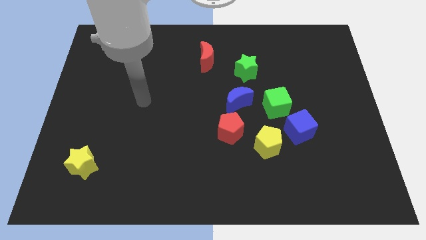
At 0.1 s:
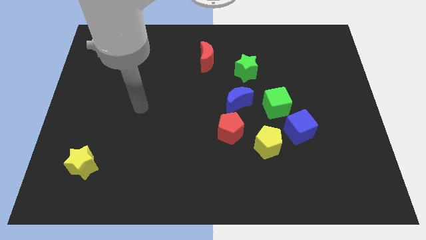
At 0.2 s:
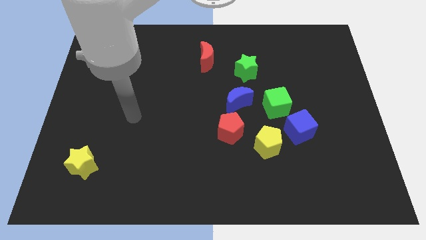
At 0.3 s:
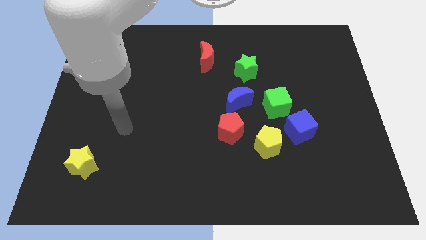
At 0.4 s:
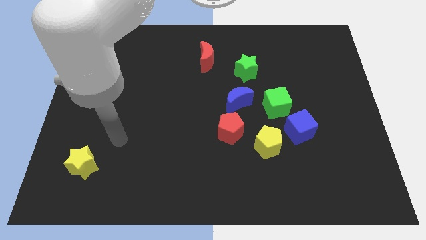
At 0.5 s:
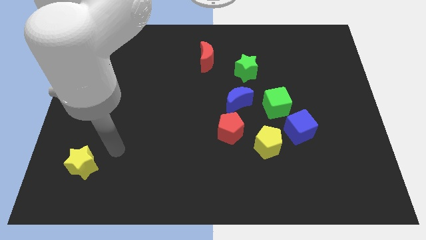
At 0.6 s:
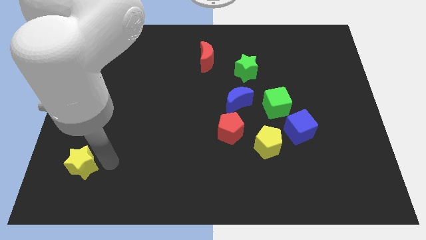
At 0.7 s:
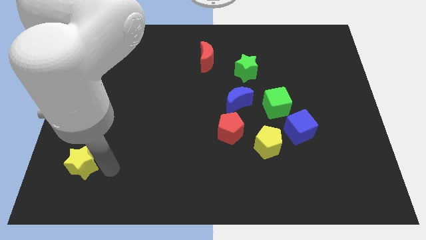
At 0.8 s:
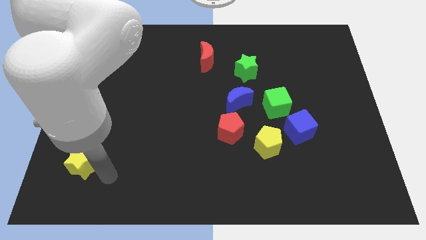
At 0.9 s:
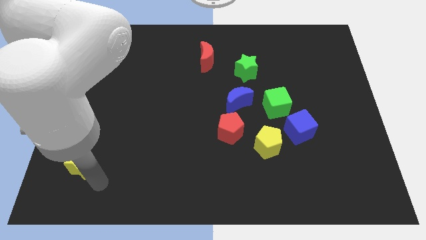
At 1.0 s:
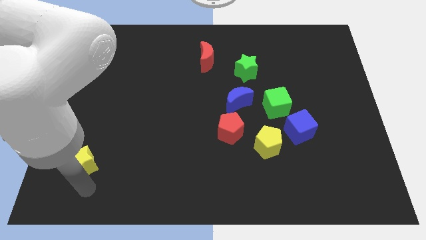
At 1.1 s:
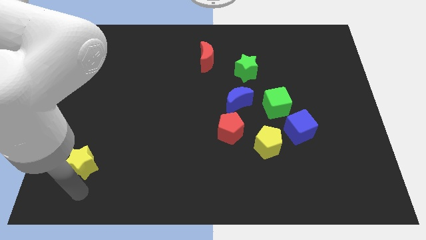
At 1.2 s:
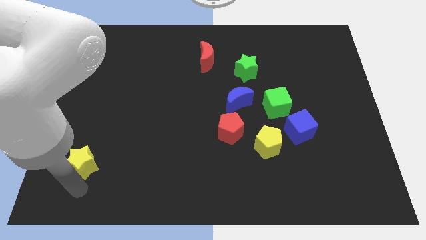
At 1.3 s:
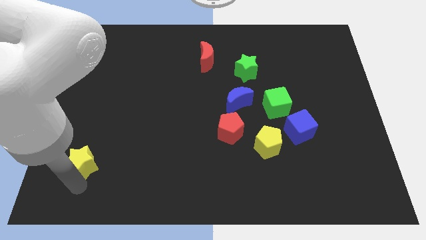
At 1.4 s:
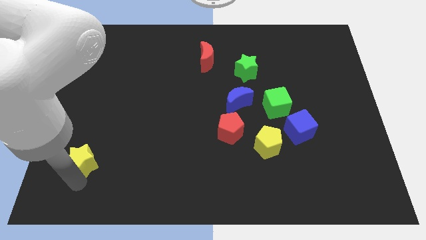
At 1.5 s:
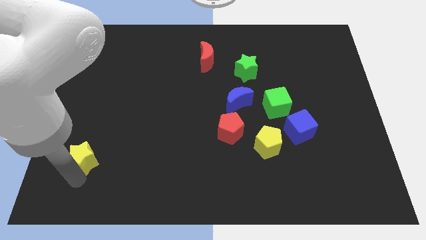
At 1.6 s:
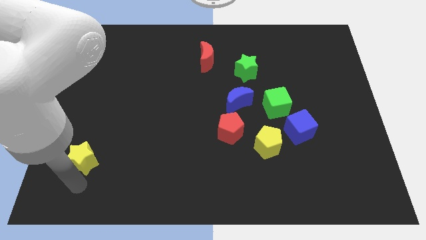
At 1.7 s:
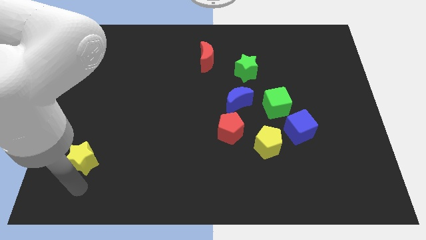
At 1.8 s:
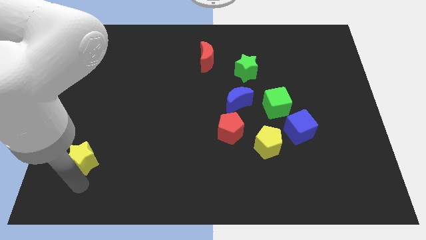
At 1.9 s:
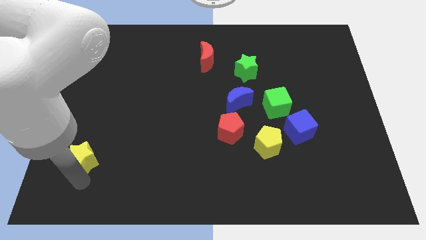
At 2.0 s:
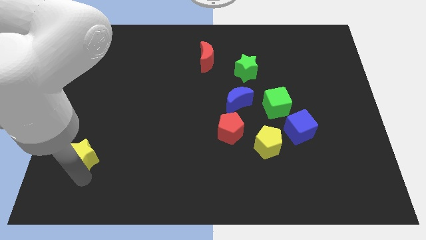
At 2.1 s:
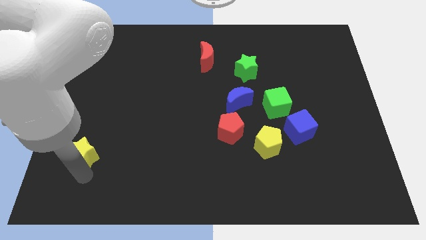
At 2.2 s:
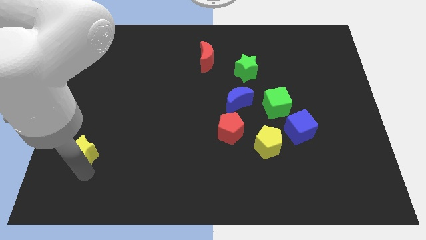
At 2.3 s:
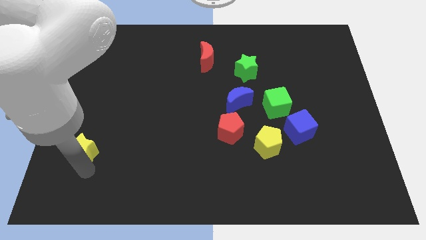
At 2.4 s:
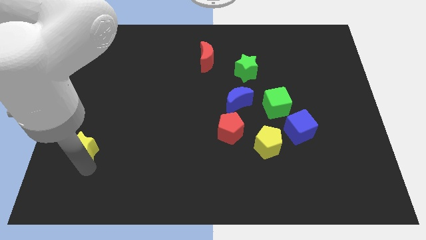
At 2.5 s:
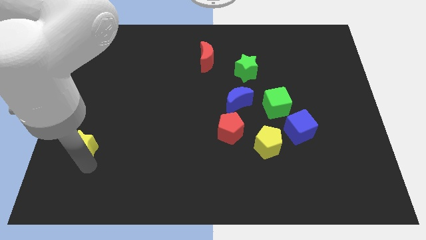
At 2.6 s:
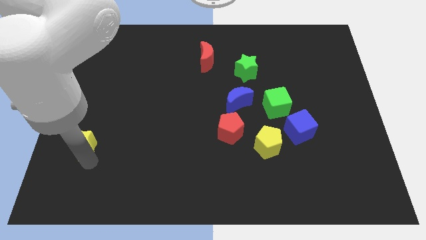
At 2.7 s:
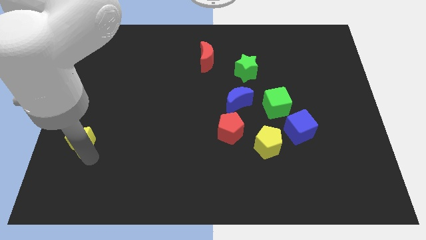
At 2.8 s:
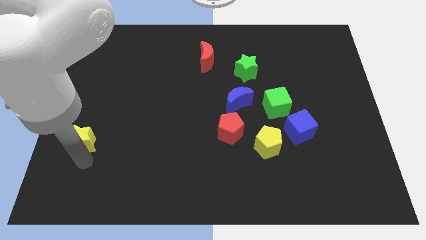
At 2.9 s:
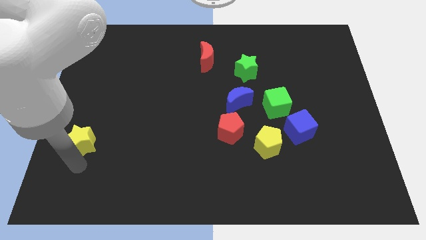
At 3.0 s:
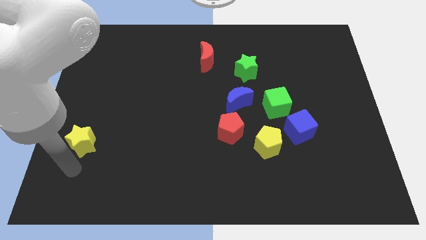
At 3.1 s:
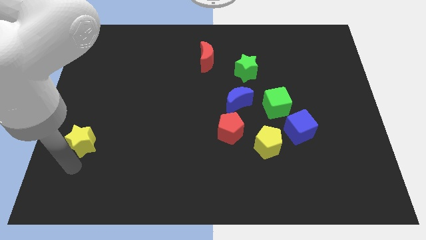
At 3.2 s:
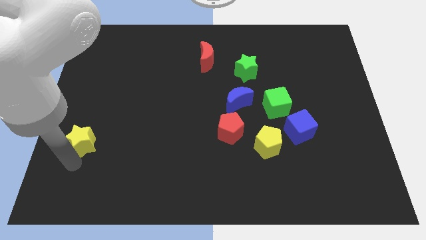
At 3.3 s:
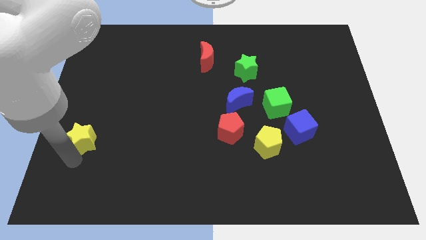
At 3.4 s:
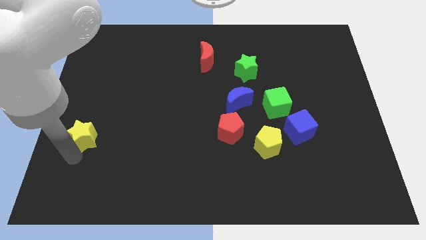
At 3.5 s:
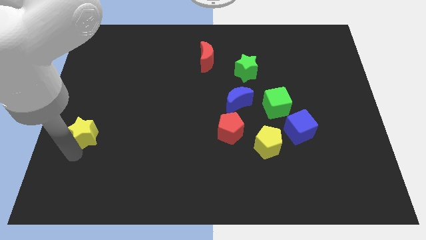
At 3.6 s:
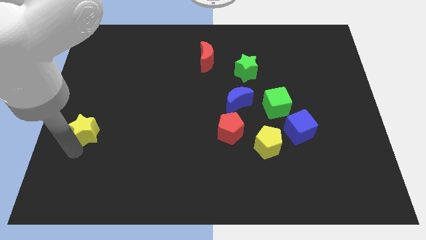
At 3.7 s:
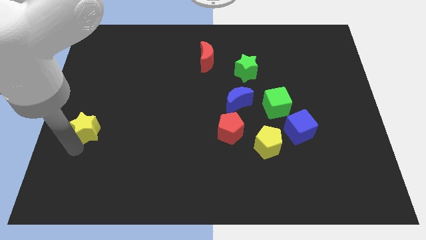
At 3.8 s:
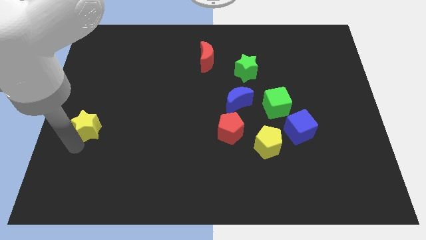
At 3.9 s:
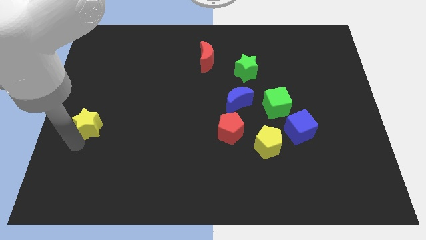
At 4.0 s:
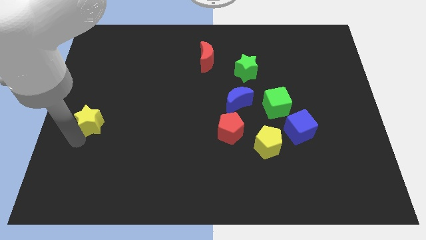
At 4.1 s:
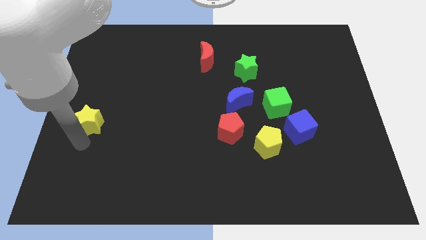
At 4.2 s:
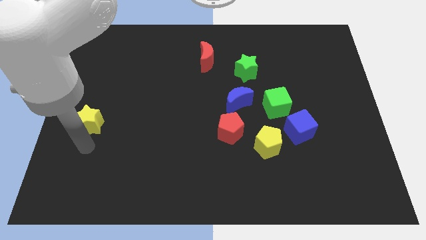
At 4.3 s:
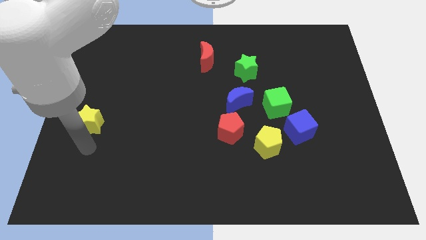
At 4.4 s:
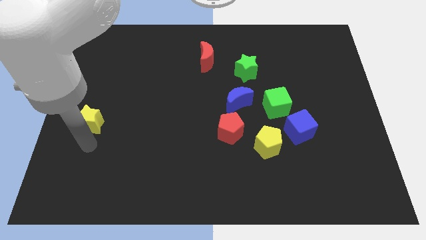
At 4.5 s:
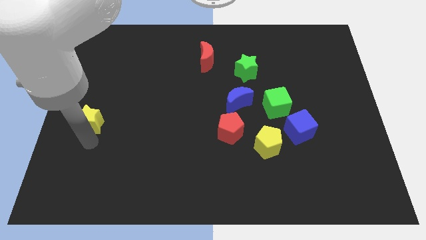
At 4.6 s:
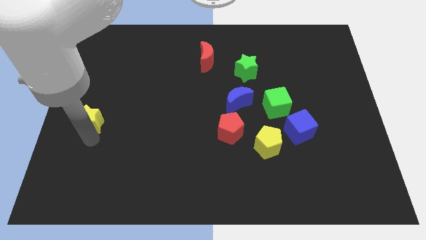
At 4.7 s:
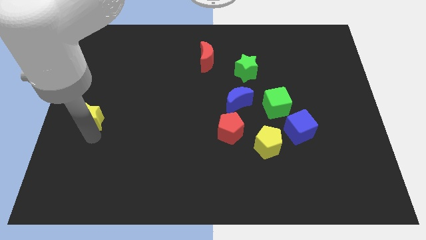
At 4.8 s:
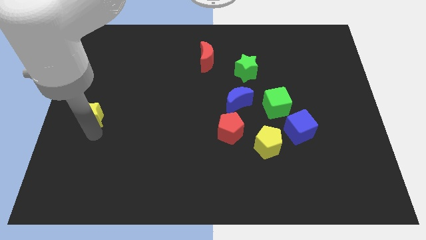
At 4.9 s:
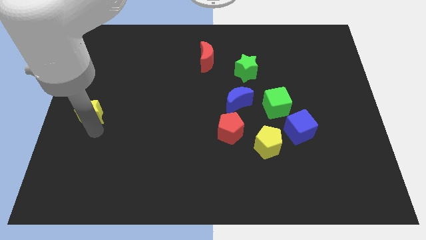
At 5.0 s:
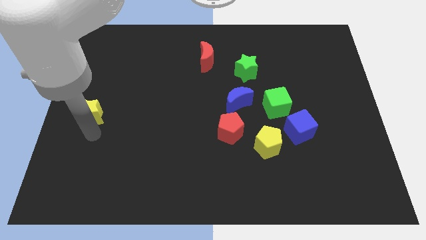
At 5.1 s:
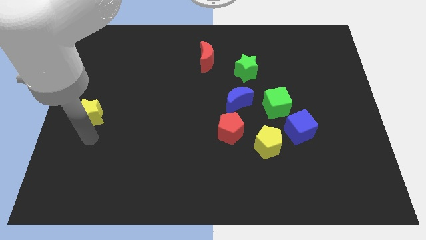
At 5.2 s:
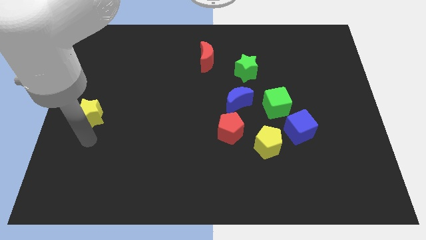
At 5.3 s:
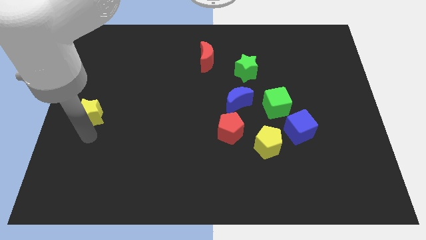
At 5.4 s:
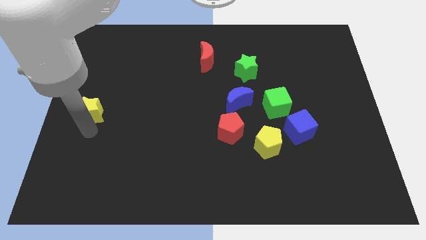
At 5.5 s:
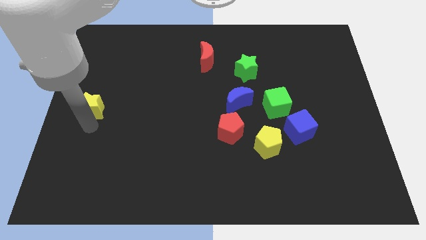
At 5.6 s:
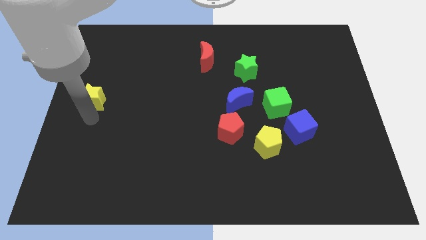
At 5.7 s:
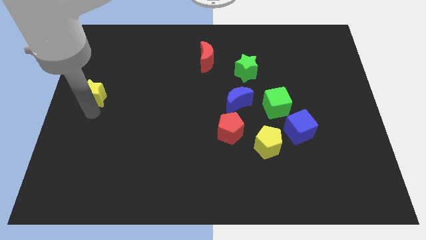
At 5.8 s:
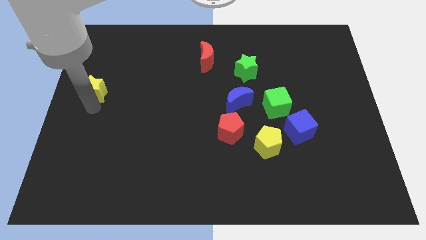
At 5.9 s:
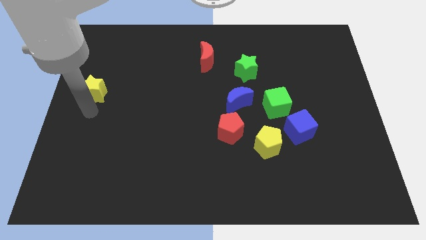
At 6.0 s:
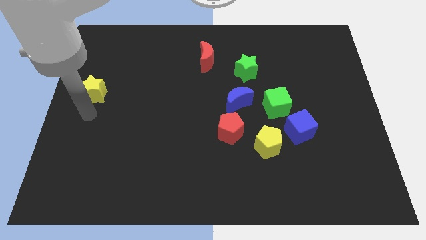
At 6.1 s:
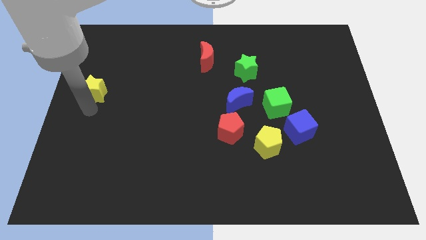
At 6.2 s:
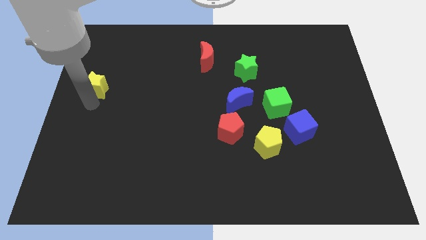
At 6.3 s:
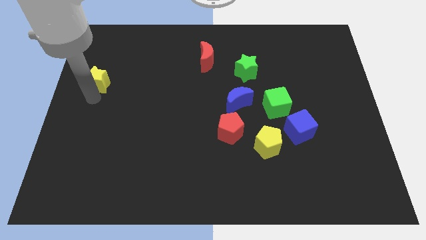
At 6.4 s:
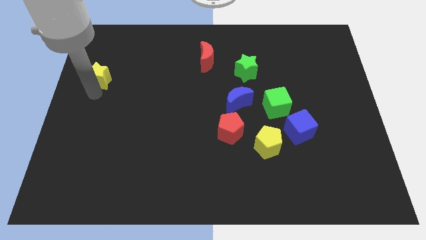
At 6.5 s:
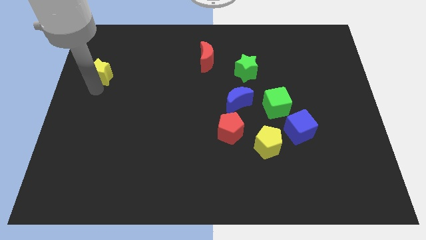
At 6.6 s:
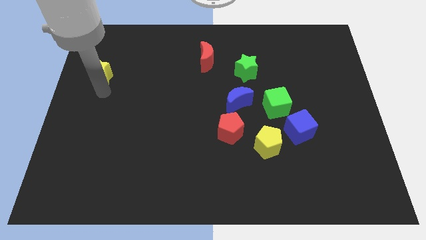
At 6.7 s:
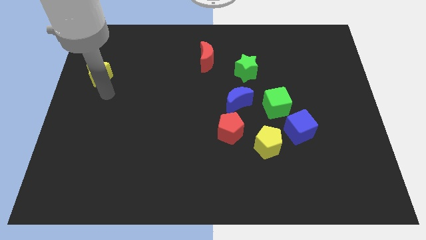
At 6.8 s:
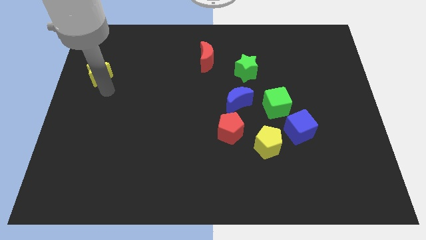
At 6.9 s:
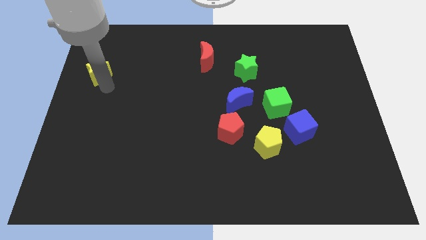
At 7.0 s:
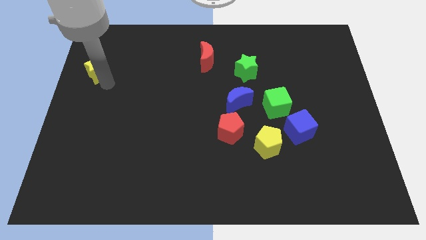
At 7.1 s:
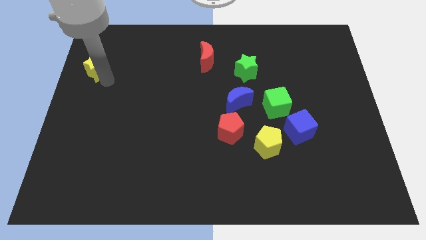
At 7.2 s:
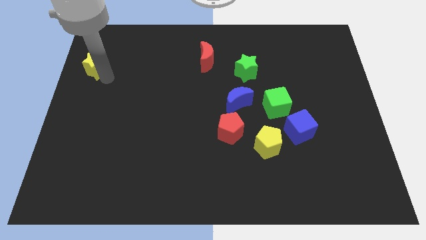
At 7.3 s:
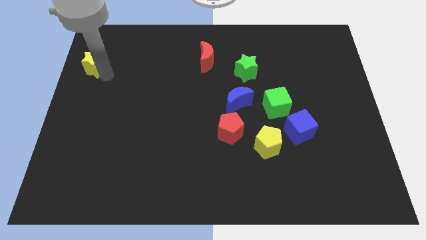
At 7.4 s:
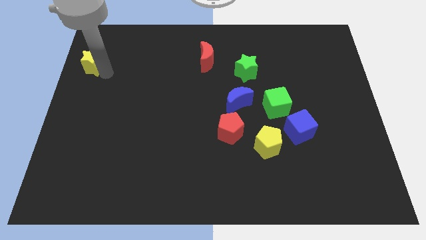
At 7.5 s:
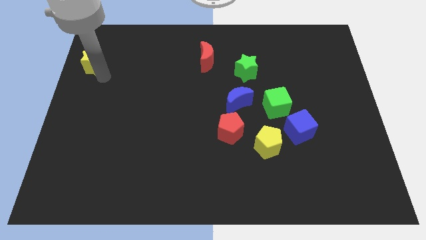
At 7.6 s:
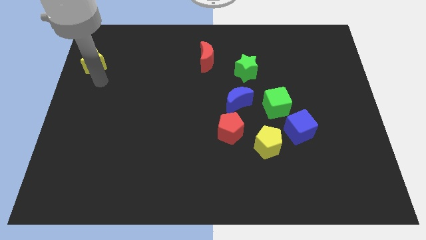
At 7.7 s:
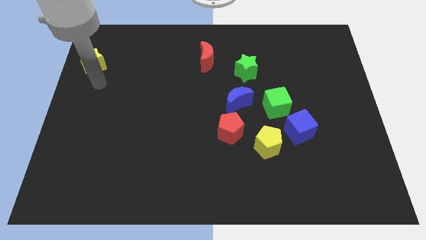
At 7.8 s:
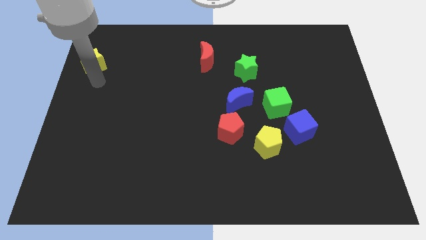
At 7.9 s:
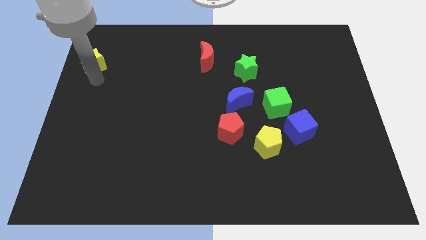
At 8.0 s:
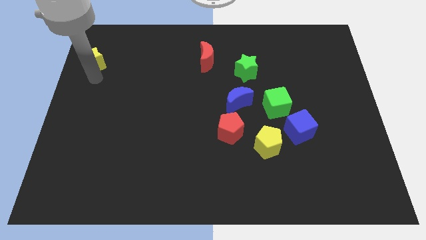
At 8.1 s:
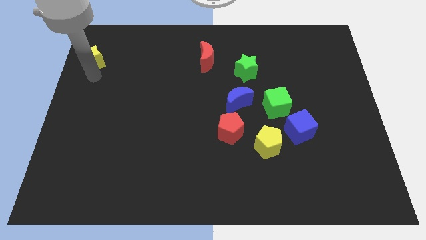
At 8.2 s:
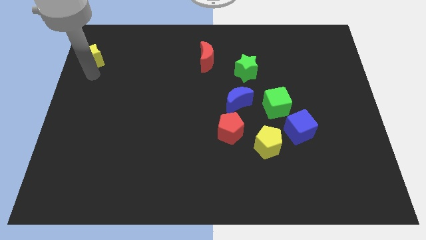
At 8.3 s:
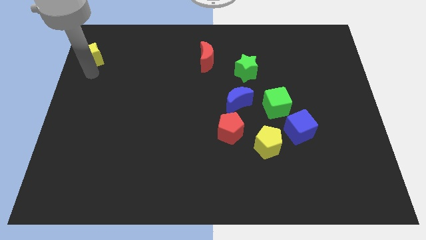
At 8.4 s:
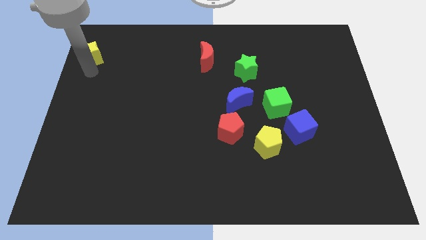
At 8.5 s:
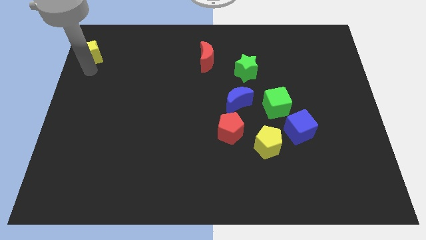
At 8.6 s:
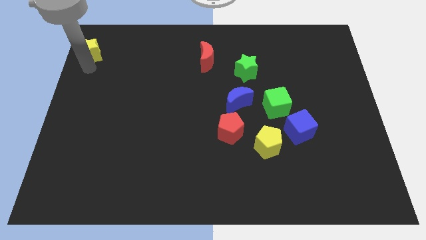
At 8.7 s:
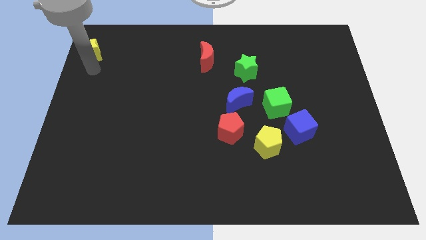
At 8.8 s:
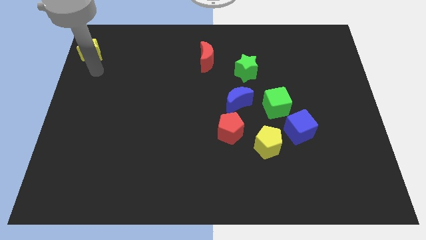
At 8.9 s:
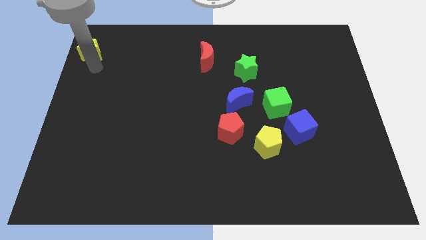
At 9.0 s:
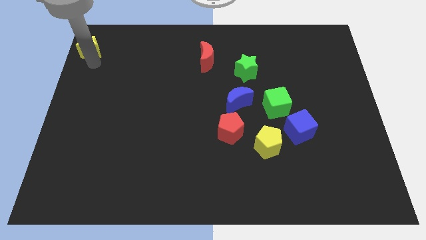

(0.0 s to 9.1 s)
put the yellow star to the upper left corner
